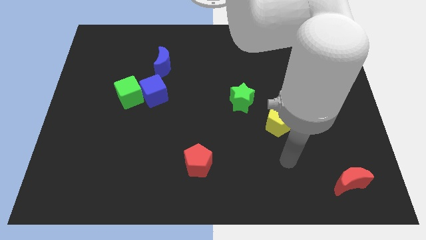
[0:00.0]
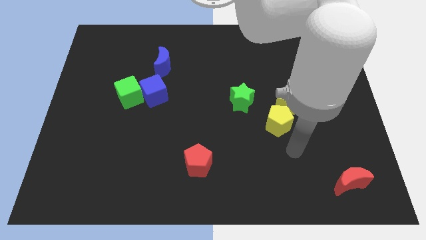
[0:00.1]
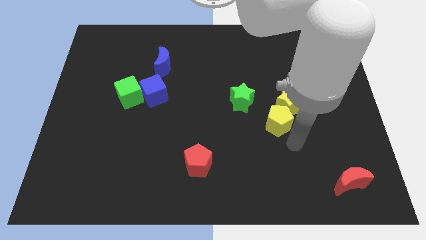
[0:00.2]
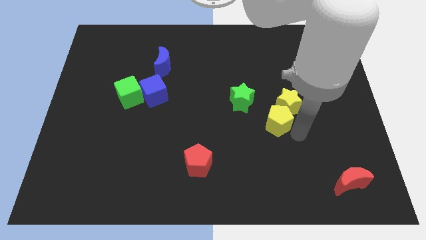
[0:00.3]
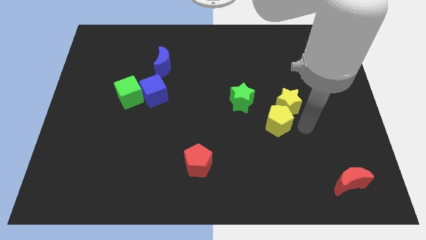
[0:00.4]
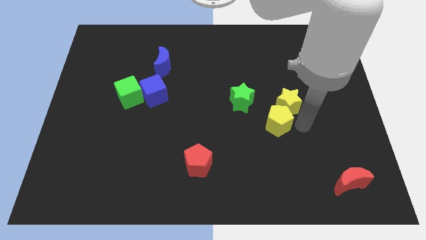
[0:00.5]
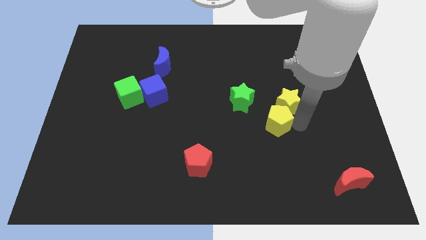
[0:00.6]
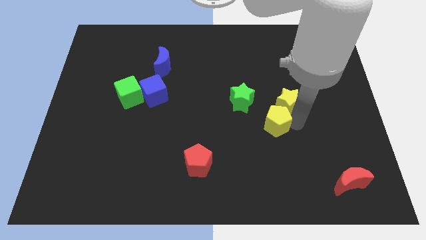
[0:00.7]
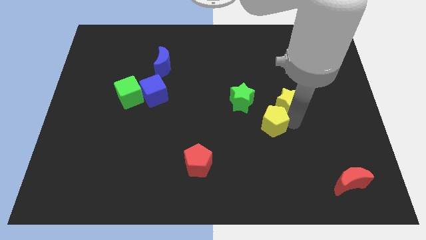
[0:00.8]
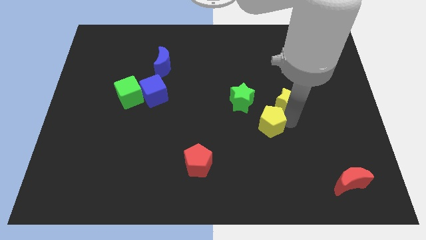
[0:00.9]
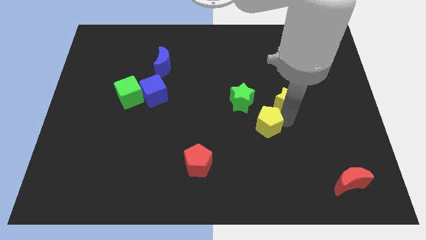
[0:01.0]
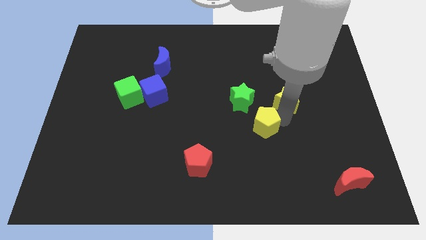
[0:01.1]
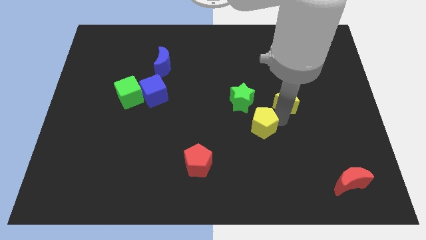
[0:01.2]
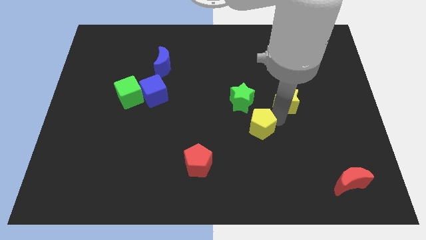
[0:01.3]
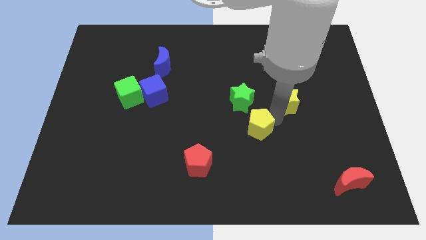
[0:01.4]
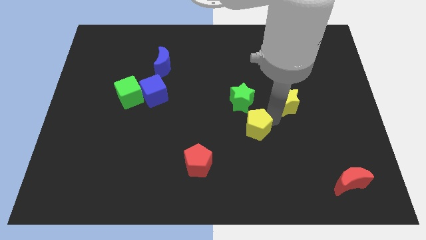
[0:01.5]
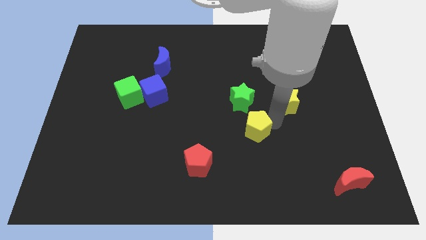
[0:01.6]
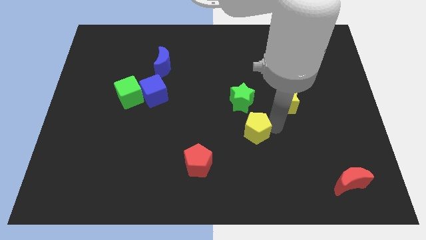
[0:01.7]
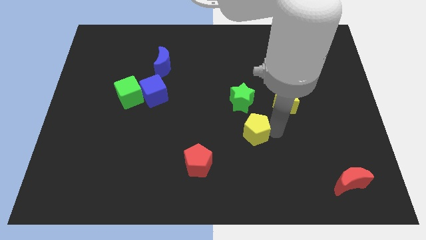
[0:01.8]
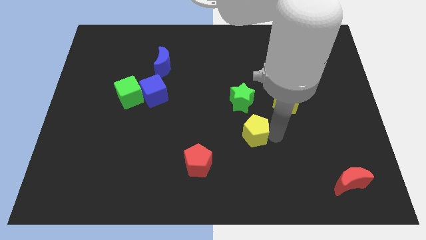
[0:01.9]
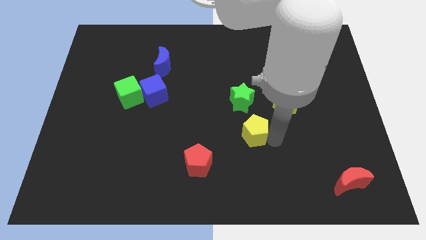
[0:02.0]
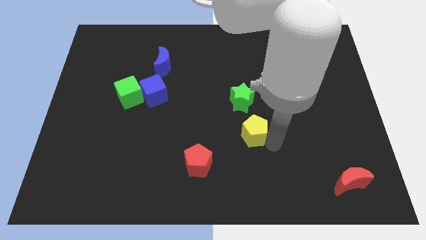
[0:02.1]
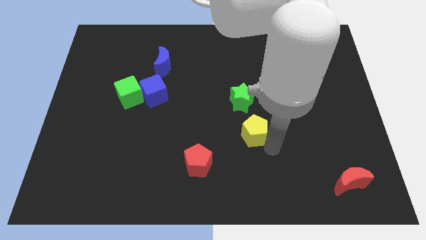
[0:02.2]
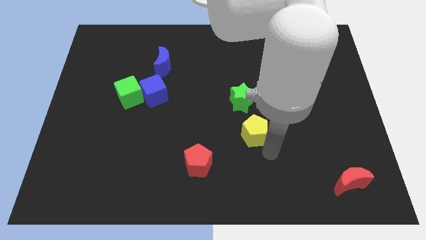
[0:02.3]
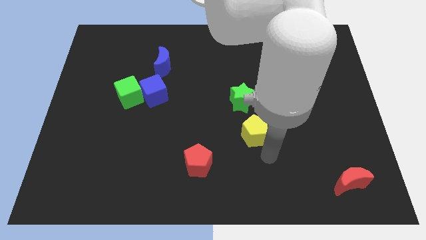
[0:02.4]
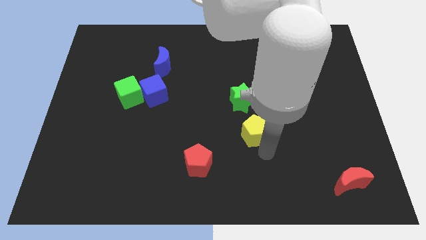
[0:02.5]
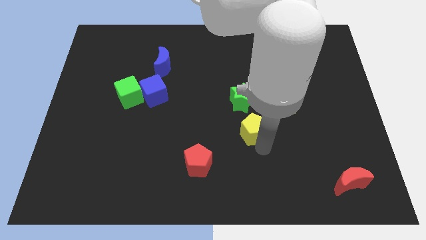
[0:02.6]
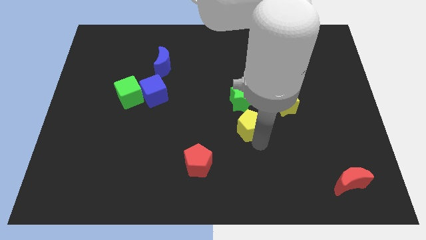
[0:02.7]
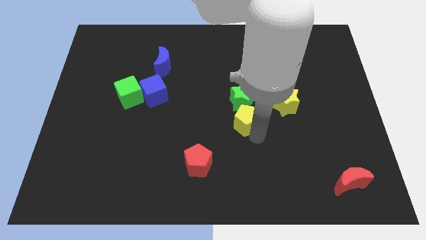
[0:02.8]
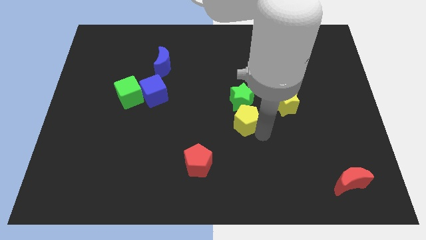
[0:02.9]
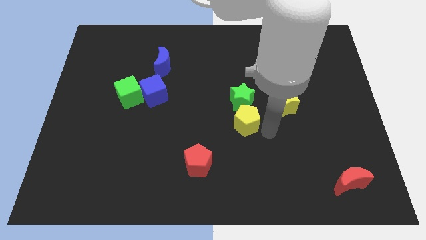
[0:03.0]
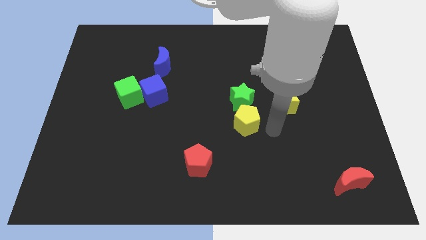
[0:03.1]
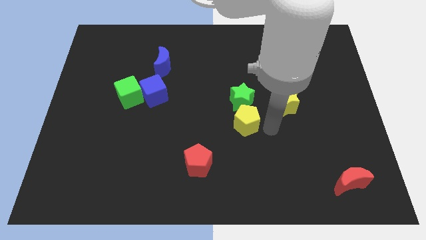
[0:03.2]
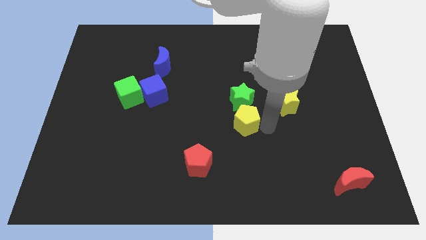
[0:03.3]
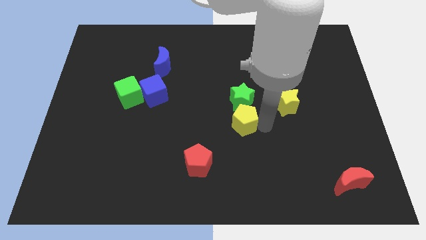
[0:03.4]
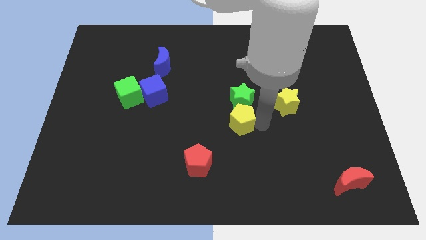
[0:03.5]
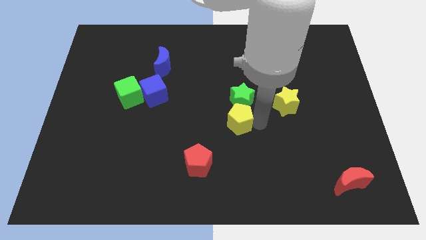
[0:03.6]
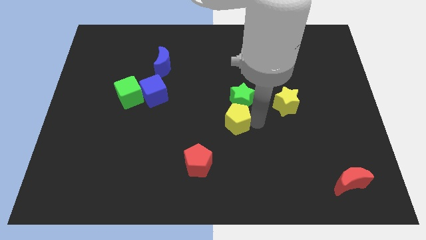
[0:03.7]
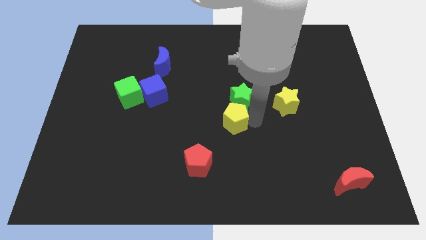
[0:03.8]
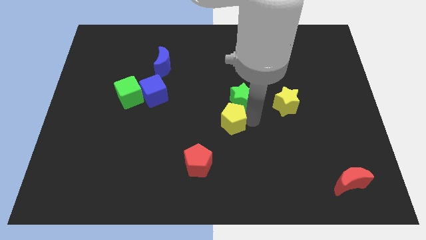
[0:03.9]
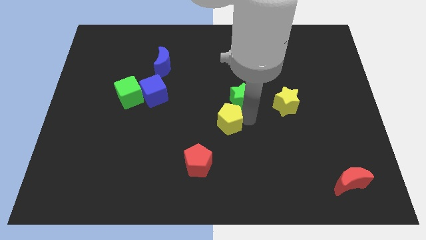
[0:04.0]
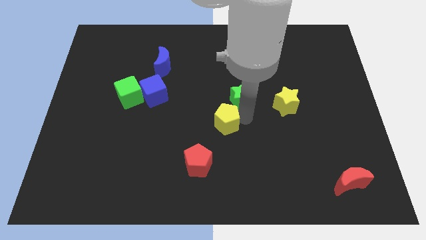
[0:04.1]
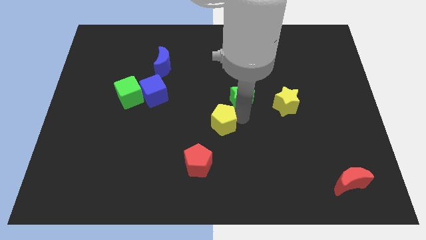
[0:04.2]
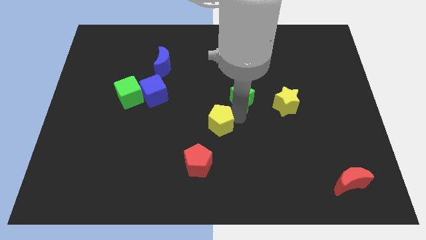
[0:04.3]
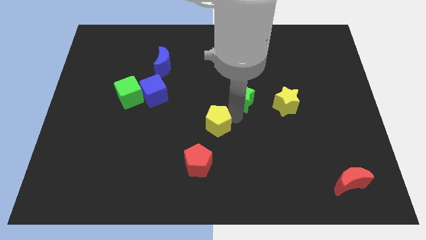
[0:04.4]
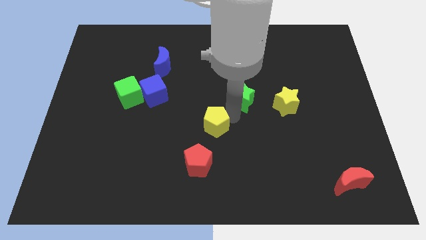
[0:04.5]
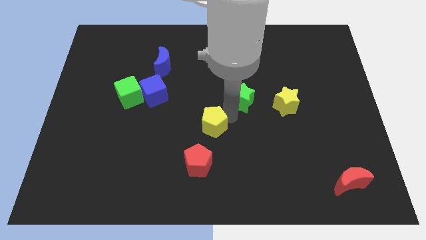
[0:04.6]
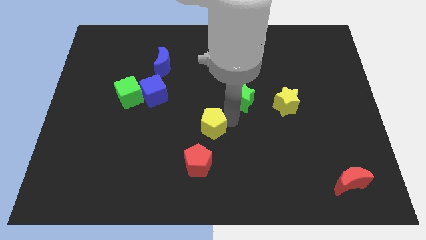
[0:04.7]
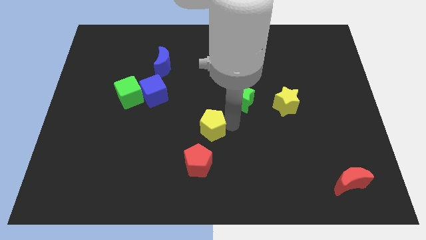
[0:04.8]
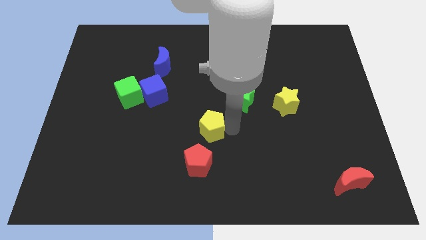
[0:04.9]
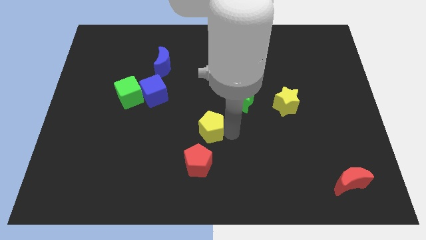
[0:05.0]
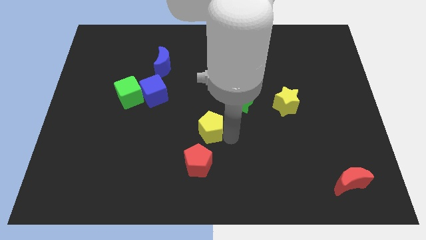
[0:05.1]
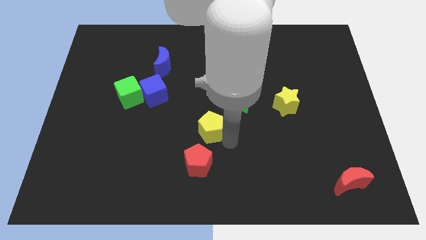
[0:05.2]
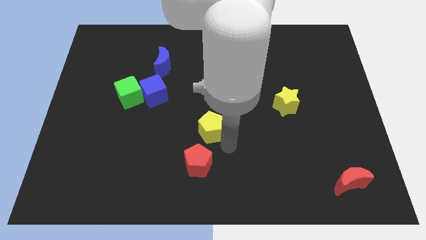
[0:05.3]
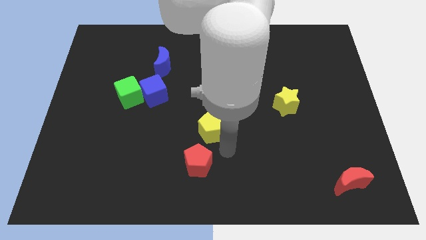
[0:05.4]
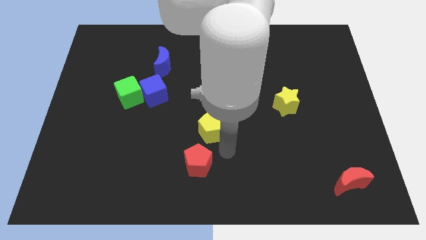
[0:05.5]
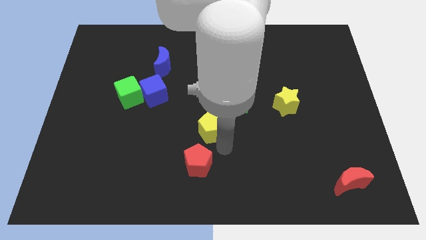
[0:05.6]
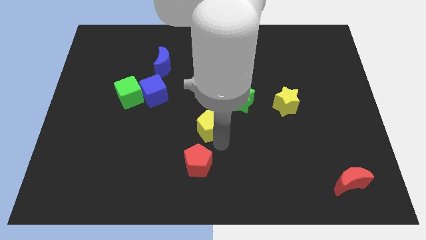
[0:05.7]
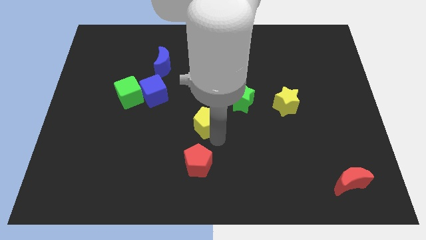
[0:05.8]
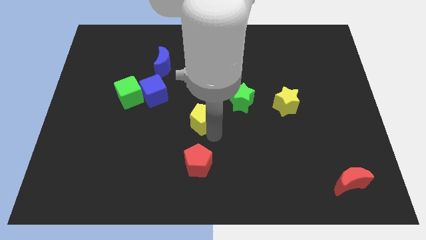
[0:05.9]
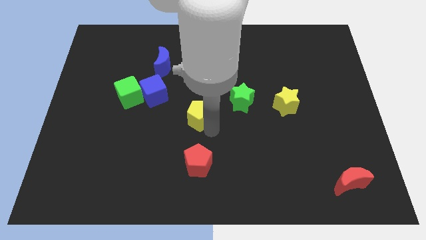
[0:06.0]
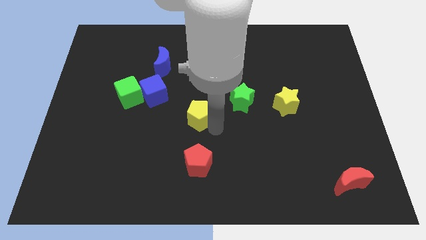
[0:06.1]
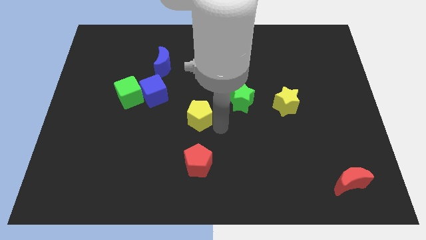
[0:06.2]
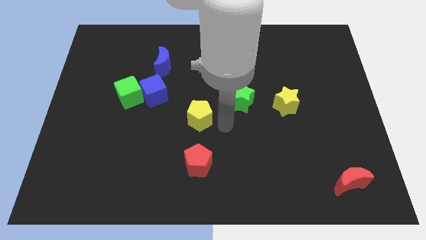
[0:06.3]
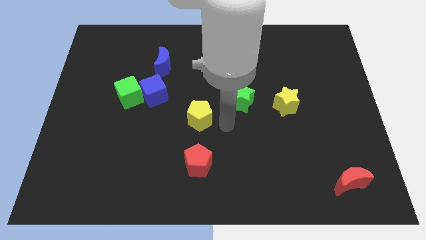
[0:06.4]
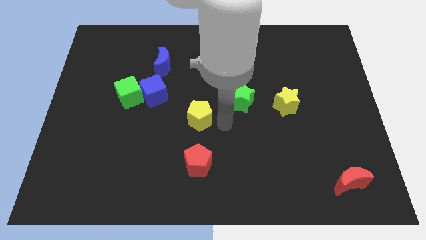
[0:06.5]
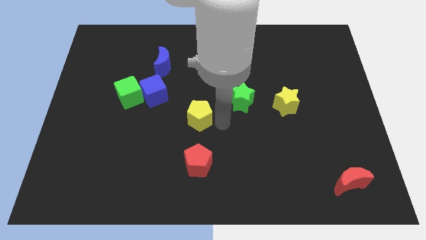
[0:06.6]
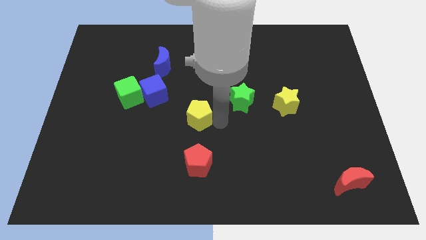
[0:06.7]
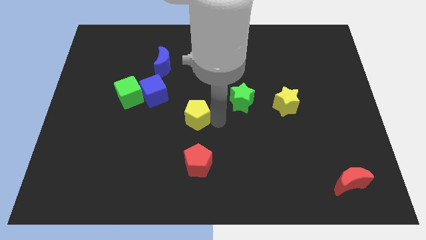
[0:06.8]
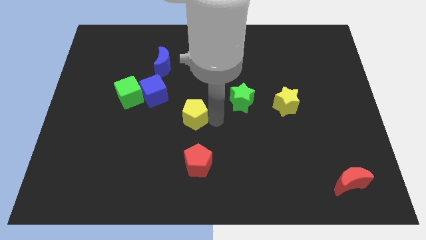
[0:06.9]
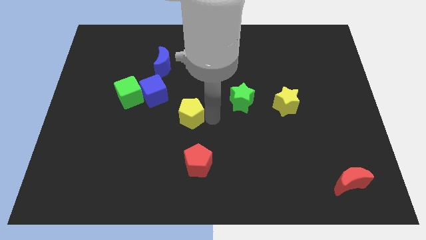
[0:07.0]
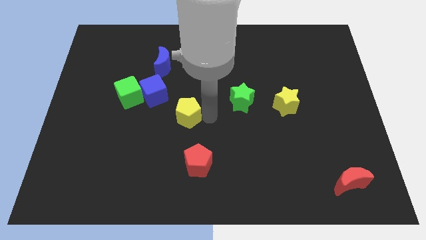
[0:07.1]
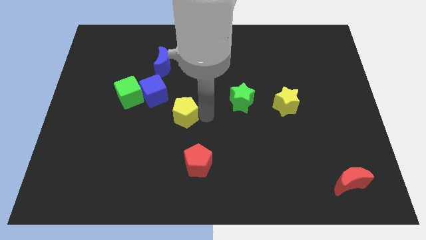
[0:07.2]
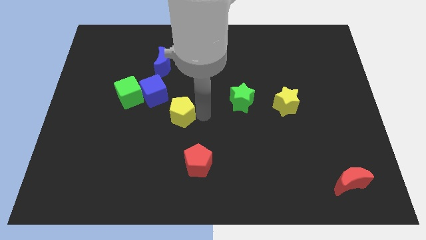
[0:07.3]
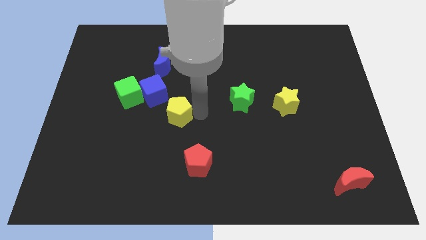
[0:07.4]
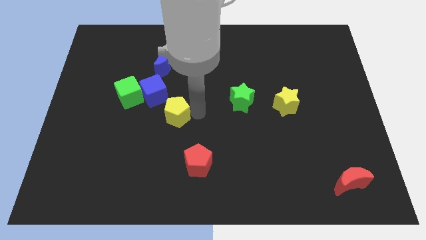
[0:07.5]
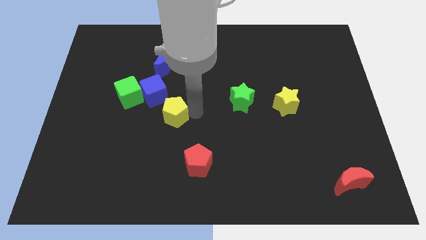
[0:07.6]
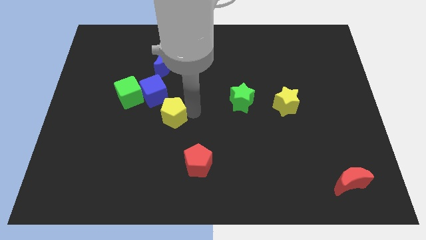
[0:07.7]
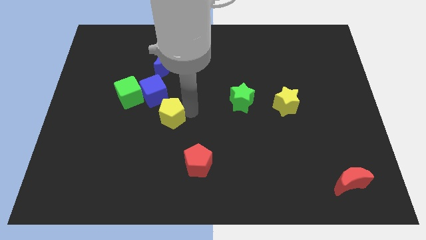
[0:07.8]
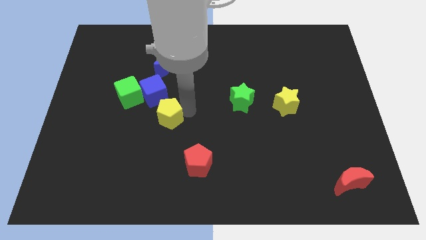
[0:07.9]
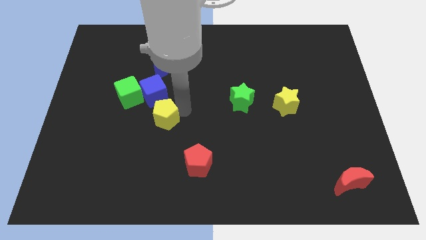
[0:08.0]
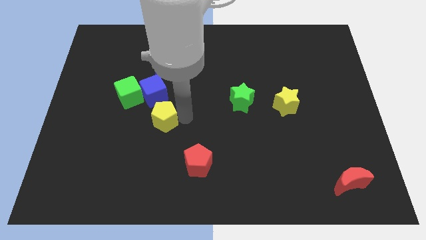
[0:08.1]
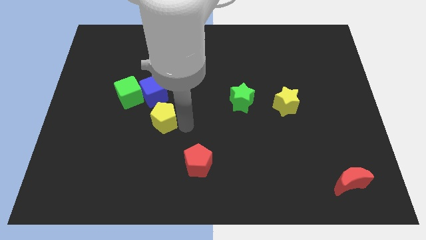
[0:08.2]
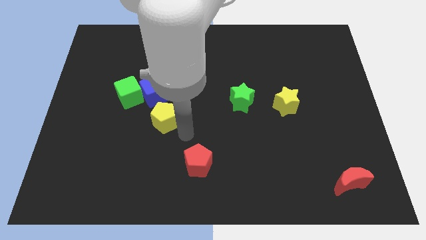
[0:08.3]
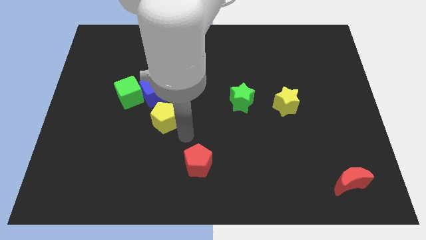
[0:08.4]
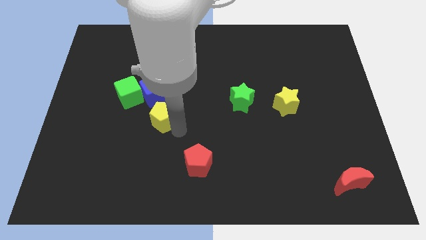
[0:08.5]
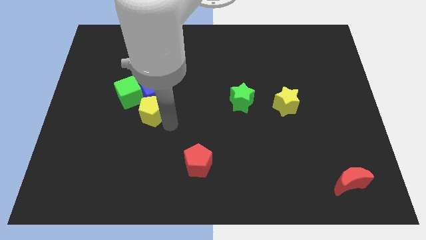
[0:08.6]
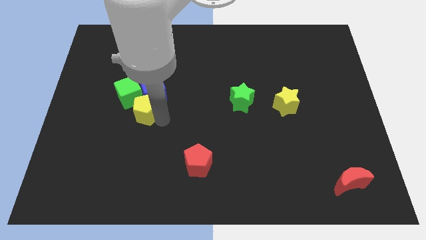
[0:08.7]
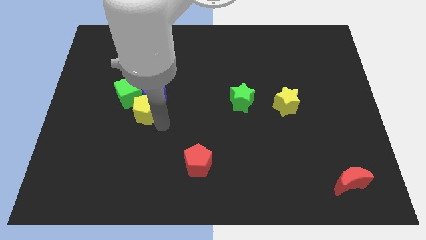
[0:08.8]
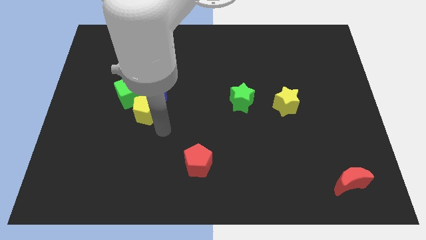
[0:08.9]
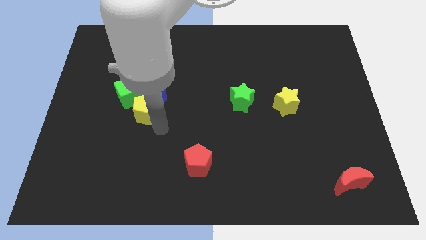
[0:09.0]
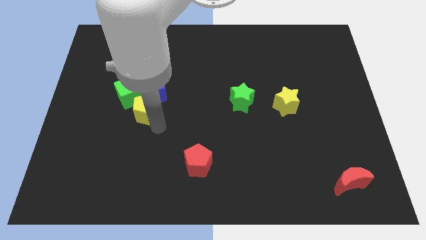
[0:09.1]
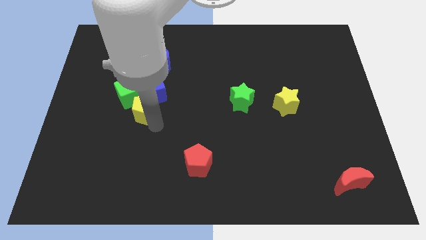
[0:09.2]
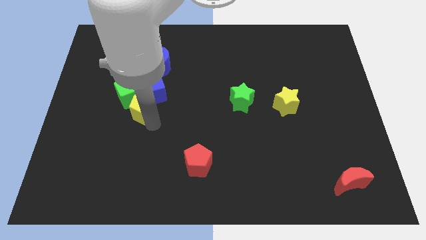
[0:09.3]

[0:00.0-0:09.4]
put the yellow pentagon close to the green cube
